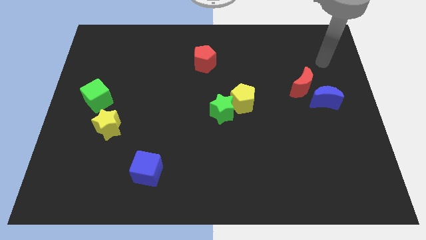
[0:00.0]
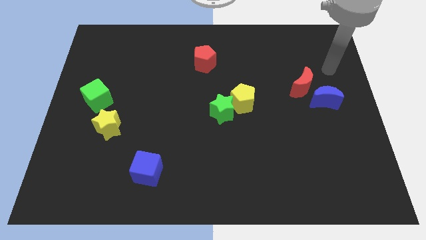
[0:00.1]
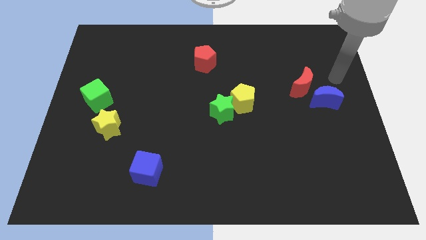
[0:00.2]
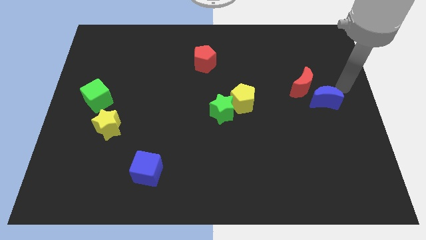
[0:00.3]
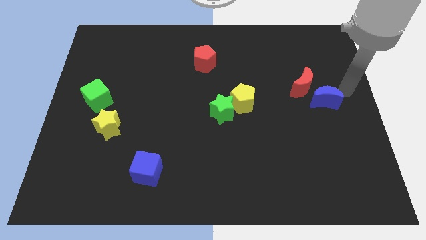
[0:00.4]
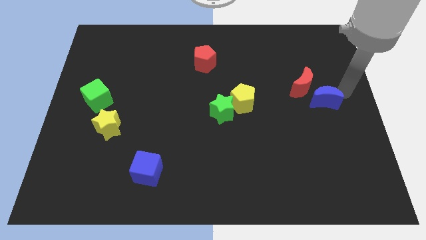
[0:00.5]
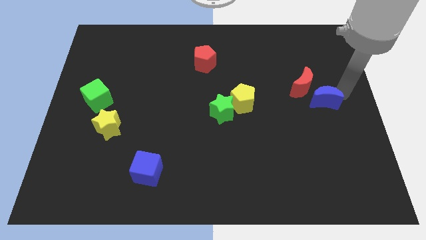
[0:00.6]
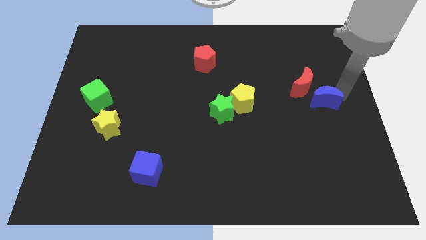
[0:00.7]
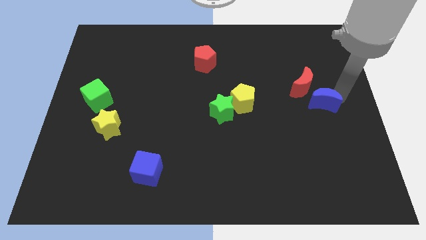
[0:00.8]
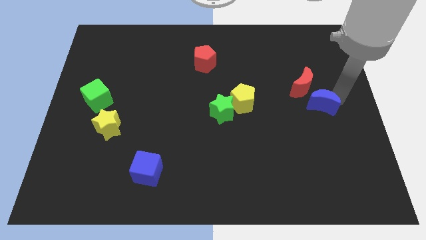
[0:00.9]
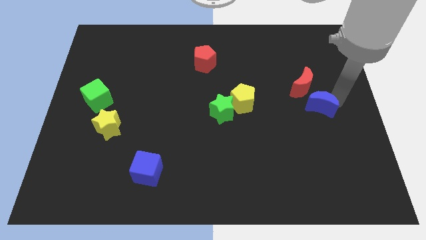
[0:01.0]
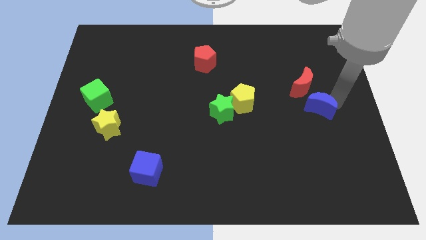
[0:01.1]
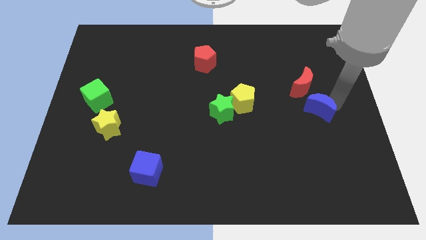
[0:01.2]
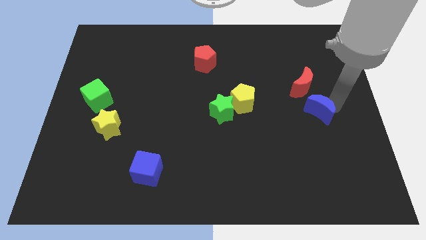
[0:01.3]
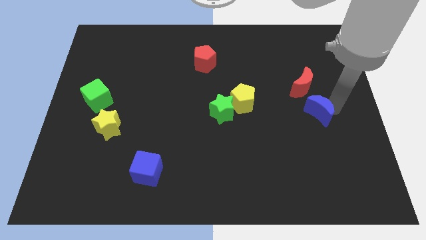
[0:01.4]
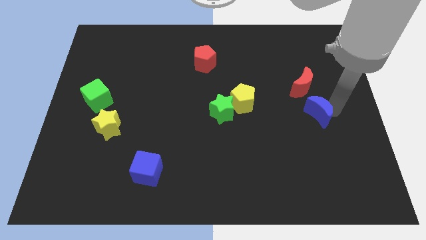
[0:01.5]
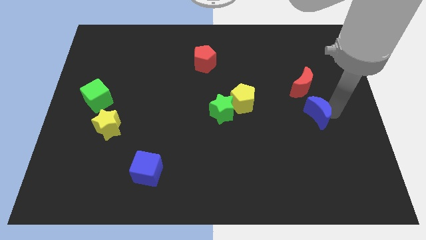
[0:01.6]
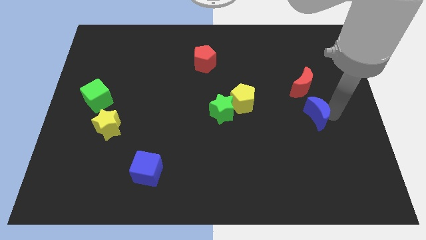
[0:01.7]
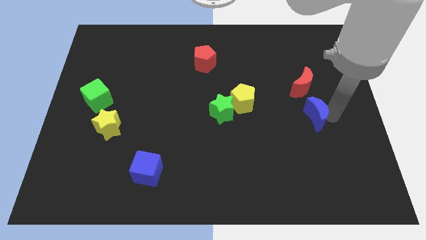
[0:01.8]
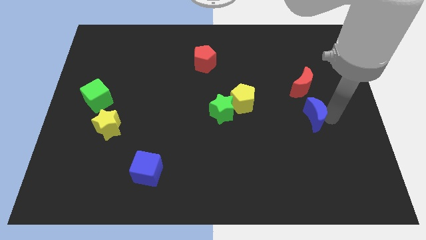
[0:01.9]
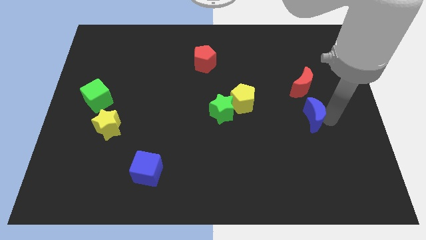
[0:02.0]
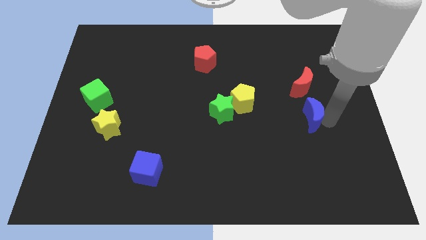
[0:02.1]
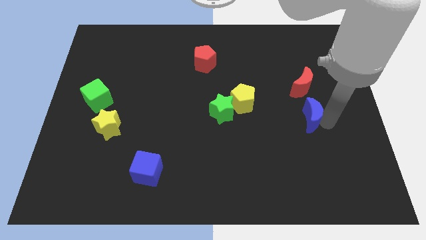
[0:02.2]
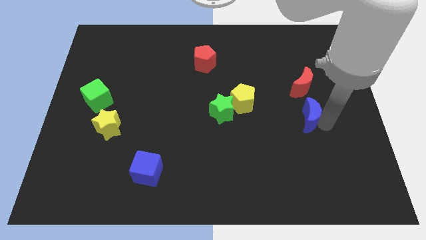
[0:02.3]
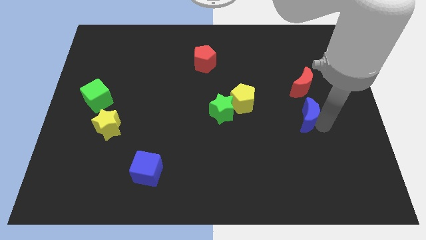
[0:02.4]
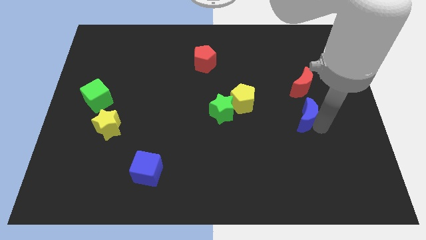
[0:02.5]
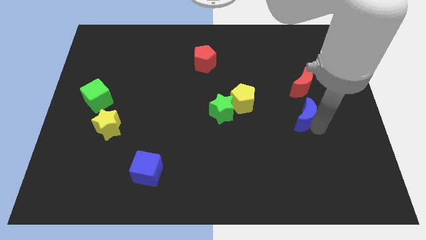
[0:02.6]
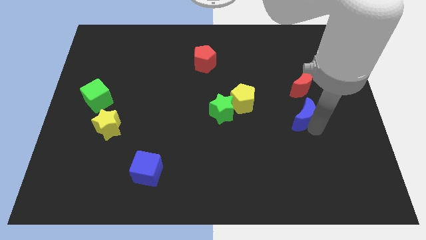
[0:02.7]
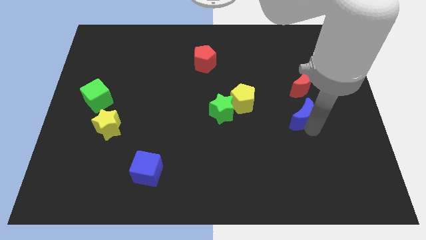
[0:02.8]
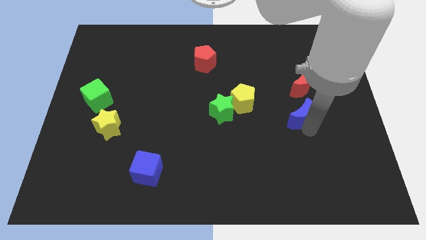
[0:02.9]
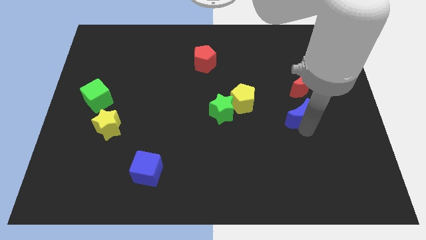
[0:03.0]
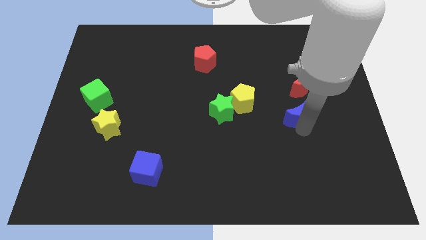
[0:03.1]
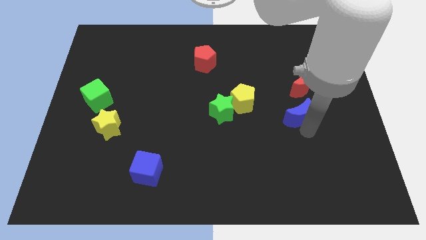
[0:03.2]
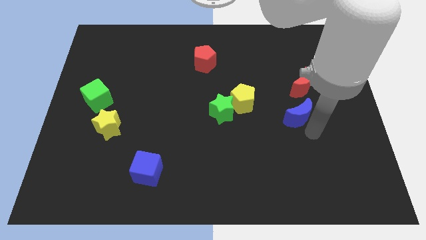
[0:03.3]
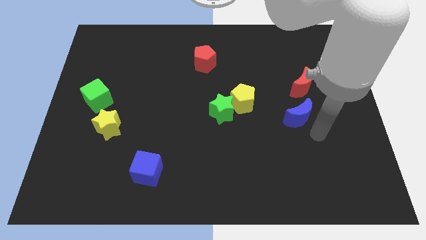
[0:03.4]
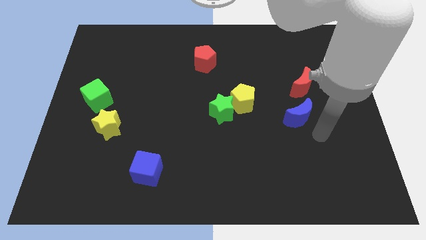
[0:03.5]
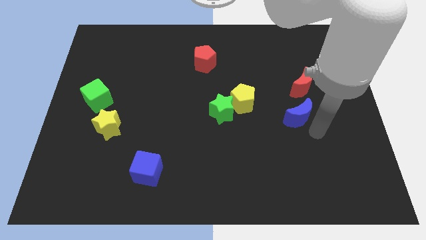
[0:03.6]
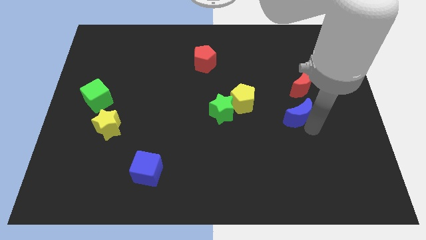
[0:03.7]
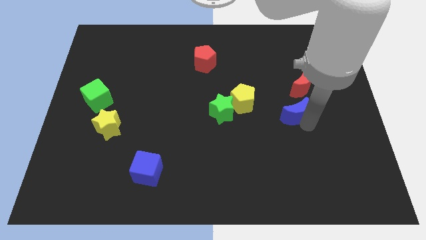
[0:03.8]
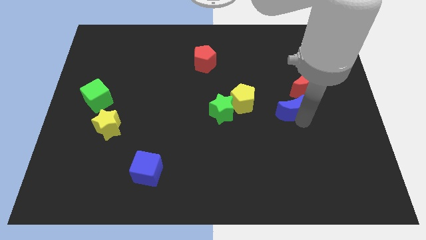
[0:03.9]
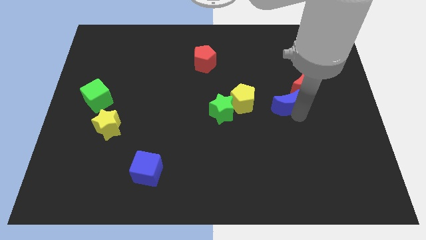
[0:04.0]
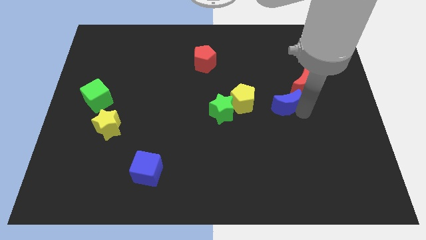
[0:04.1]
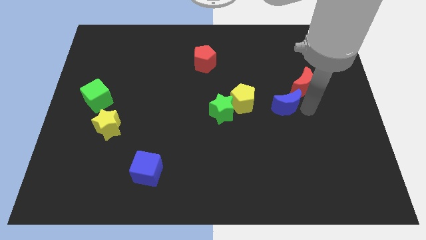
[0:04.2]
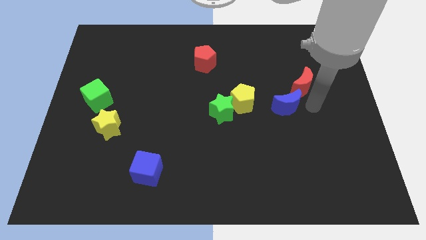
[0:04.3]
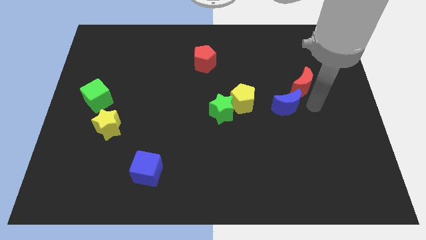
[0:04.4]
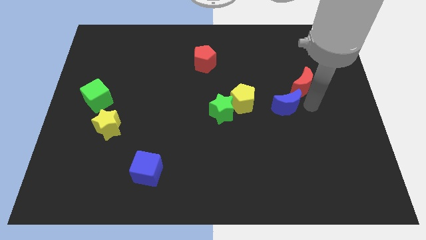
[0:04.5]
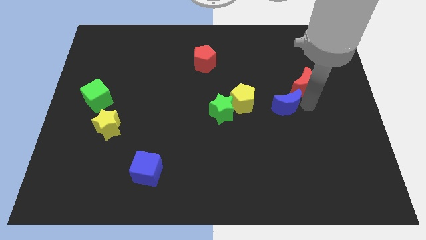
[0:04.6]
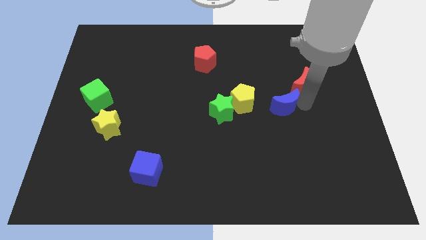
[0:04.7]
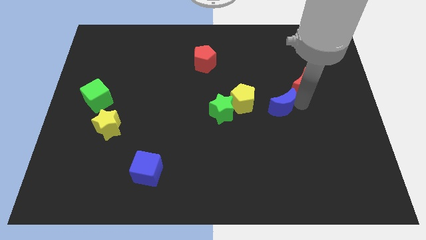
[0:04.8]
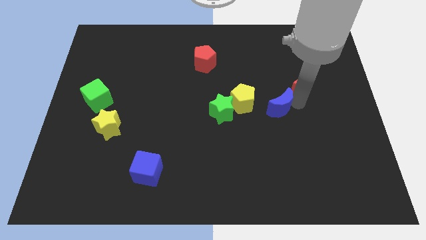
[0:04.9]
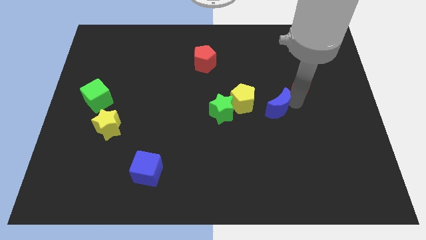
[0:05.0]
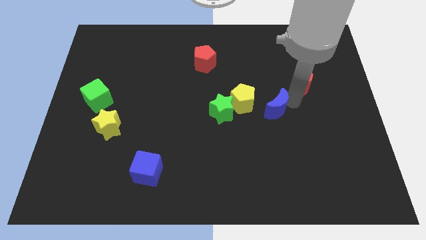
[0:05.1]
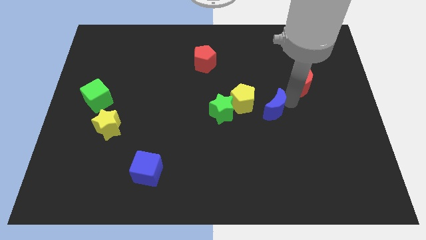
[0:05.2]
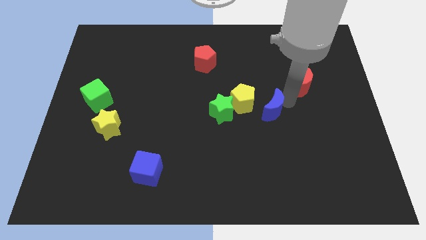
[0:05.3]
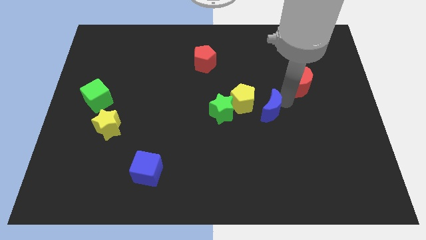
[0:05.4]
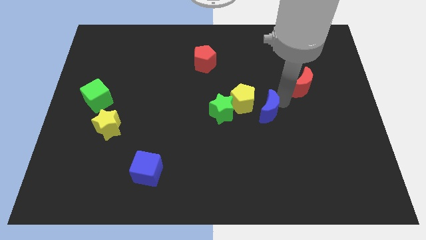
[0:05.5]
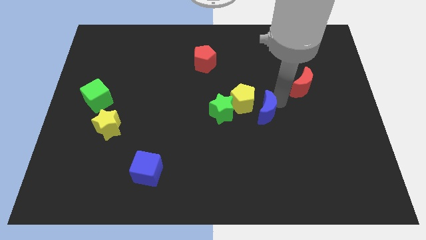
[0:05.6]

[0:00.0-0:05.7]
push the blue moon towards the yellow pentagon
